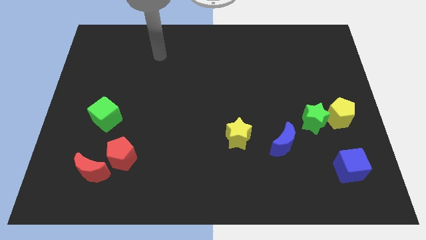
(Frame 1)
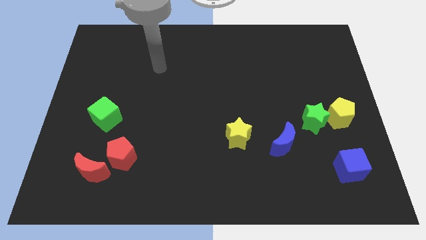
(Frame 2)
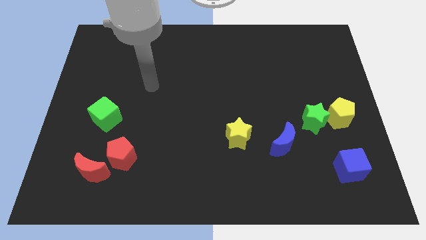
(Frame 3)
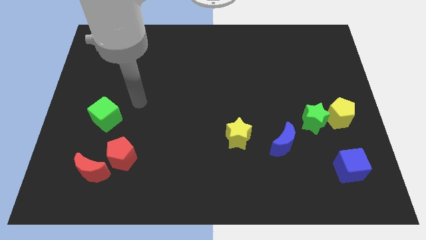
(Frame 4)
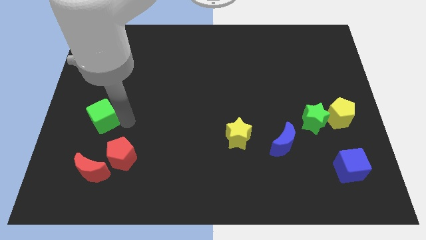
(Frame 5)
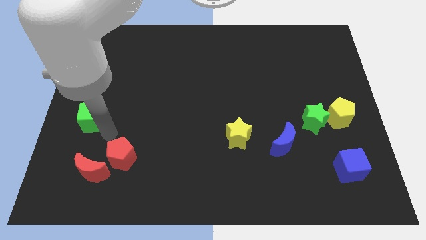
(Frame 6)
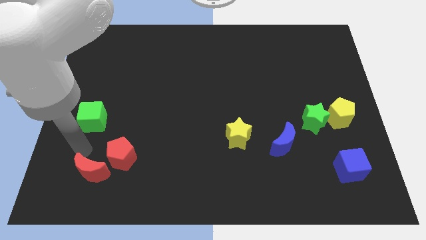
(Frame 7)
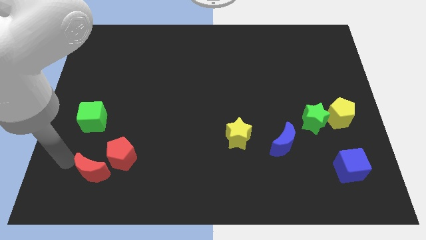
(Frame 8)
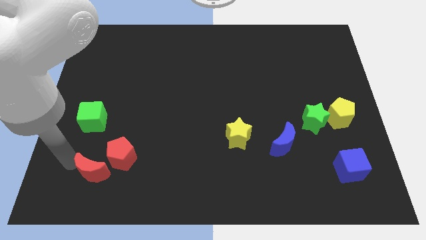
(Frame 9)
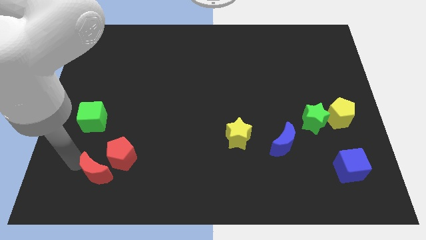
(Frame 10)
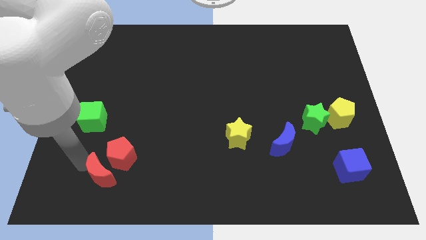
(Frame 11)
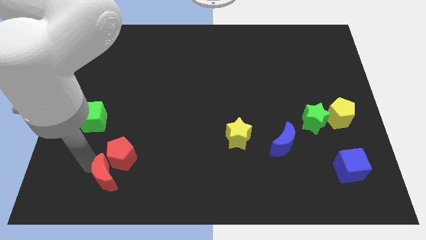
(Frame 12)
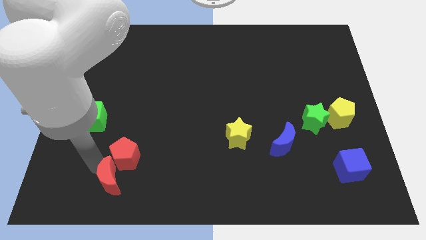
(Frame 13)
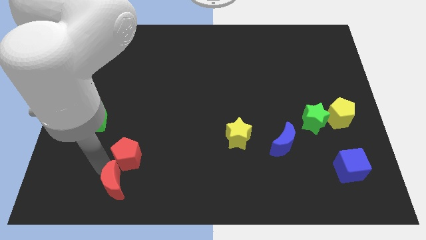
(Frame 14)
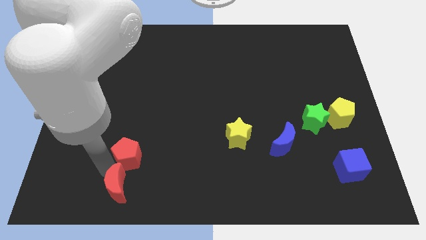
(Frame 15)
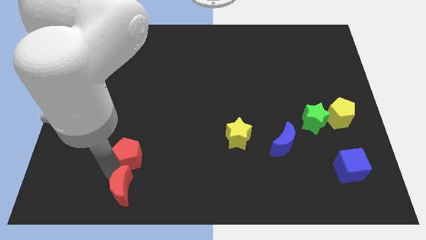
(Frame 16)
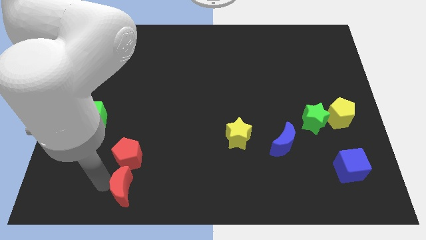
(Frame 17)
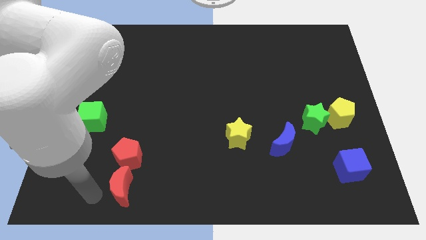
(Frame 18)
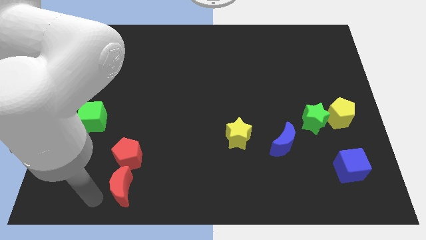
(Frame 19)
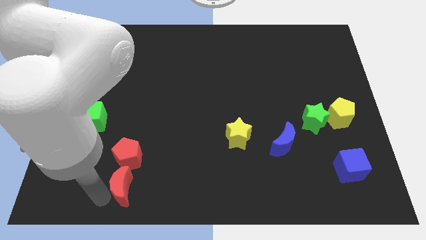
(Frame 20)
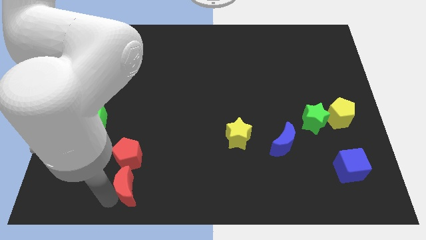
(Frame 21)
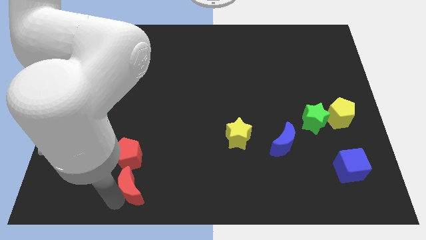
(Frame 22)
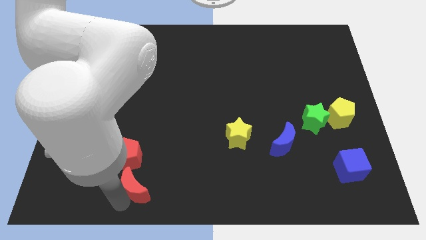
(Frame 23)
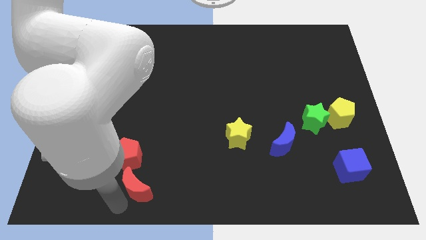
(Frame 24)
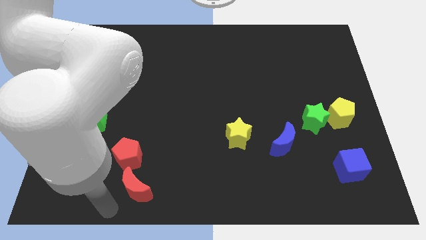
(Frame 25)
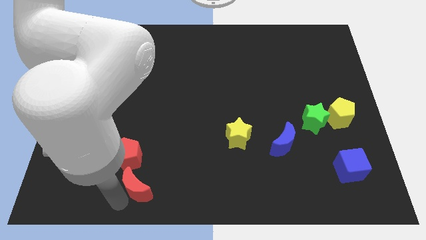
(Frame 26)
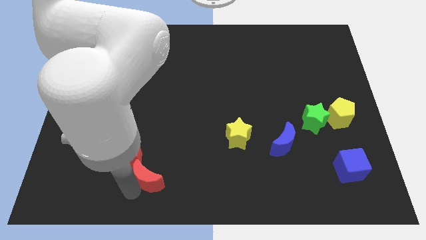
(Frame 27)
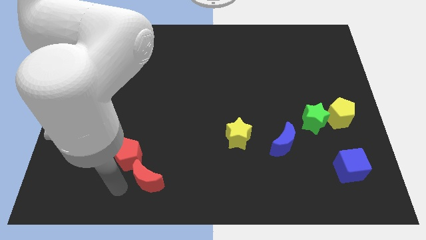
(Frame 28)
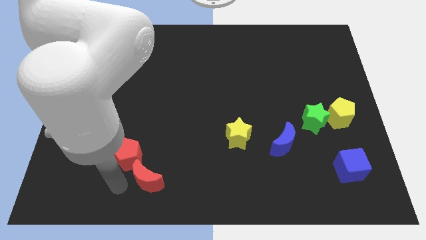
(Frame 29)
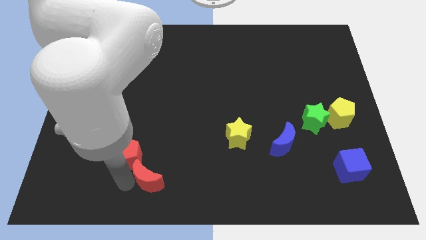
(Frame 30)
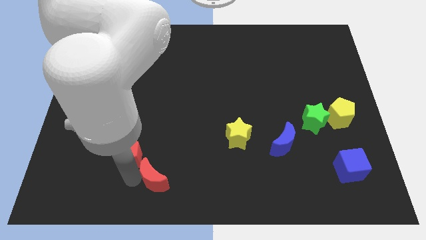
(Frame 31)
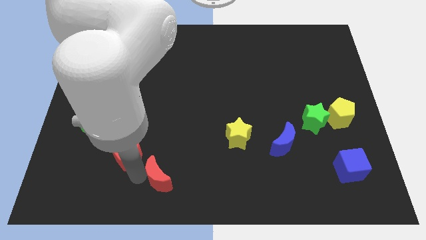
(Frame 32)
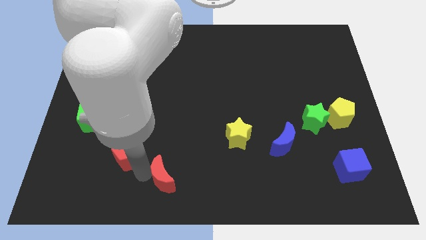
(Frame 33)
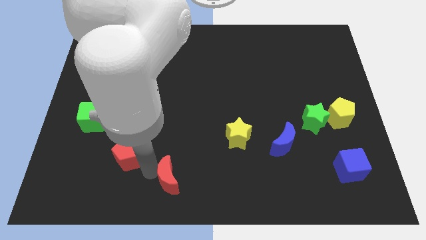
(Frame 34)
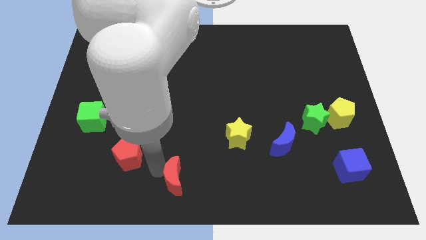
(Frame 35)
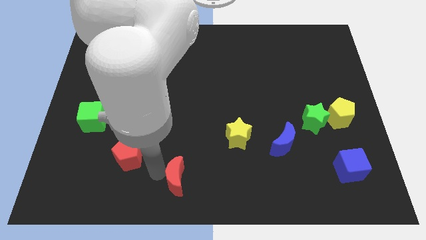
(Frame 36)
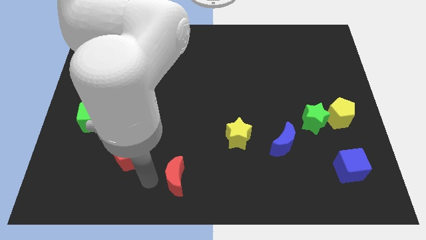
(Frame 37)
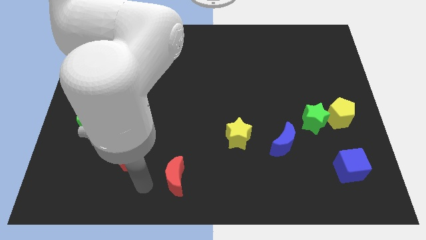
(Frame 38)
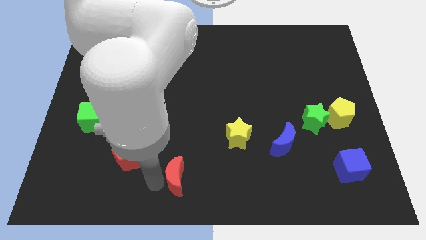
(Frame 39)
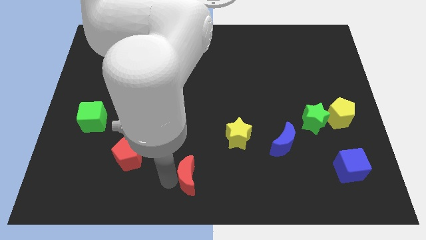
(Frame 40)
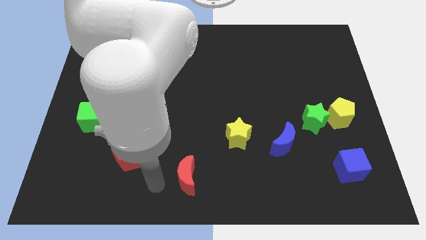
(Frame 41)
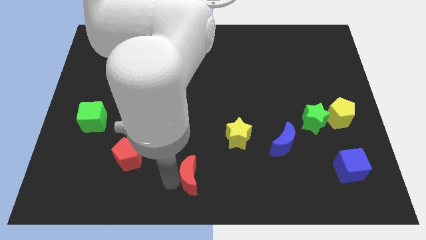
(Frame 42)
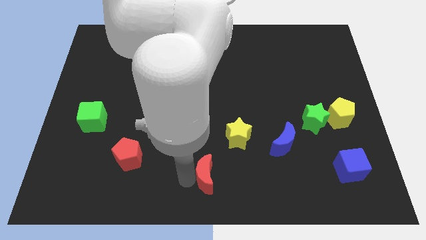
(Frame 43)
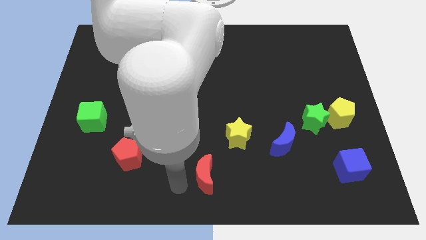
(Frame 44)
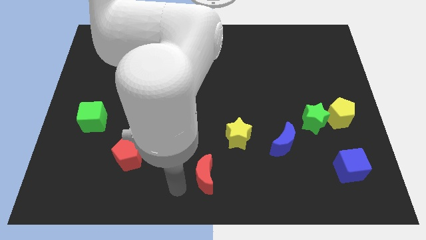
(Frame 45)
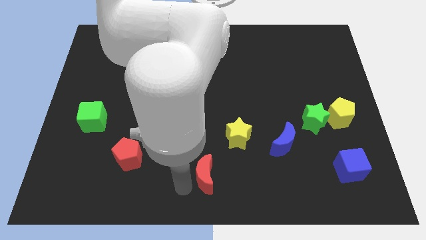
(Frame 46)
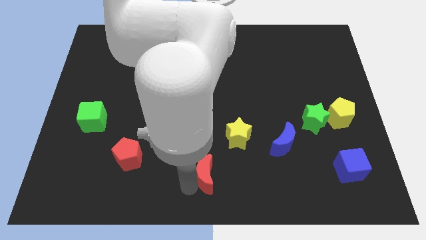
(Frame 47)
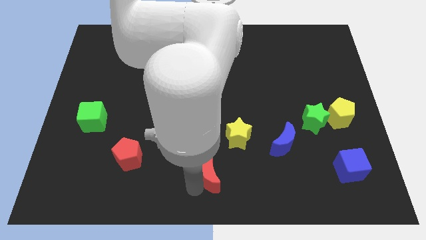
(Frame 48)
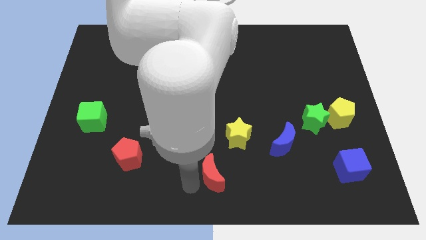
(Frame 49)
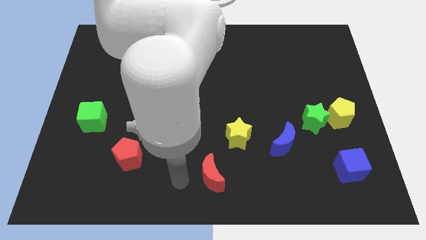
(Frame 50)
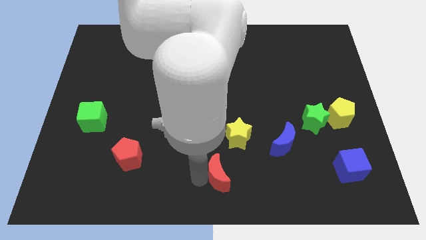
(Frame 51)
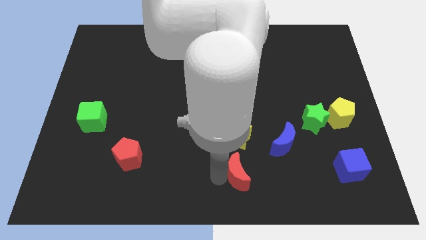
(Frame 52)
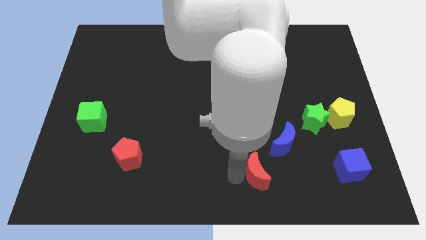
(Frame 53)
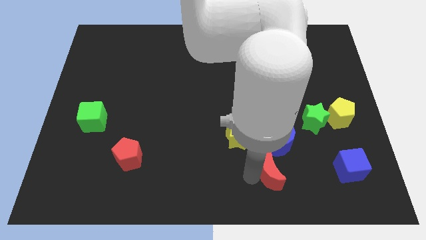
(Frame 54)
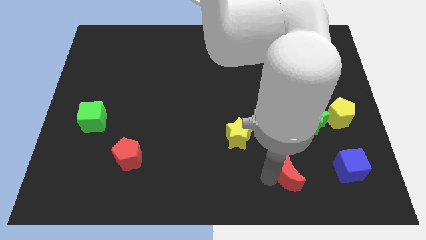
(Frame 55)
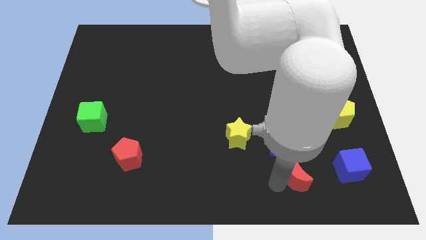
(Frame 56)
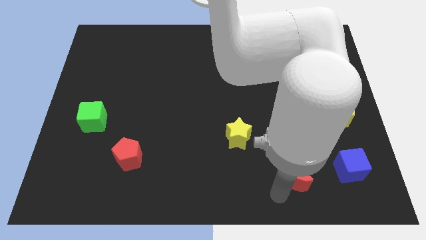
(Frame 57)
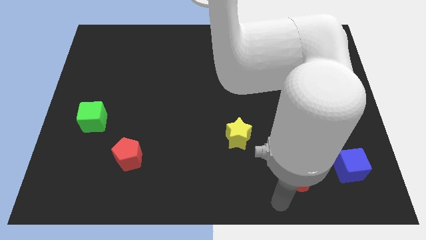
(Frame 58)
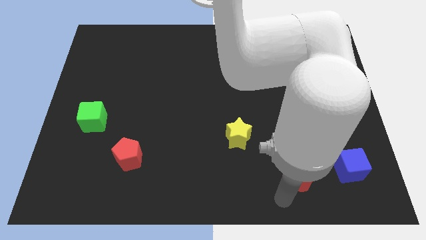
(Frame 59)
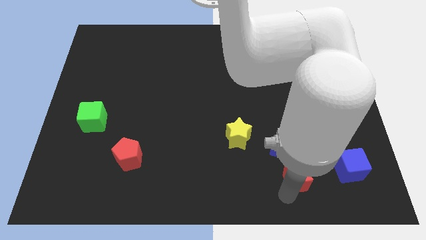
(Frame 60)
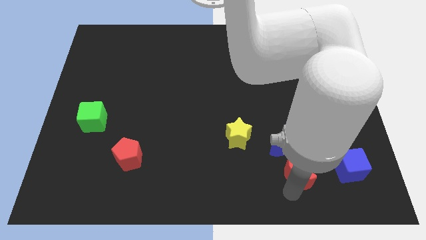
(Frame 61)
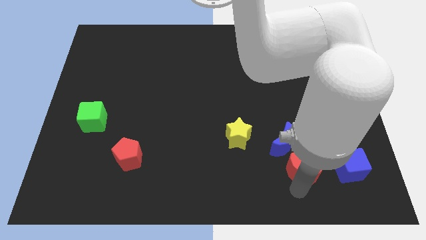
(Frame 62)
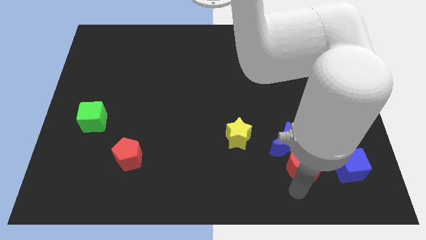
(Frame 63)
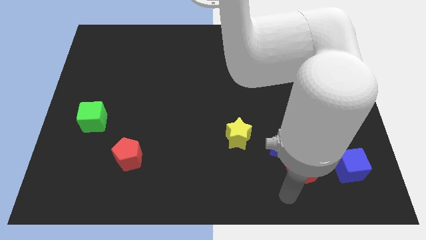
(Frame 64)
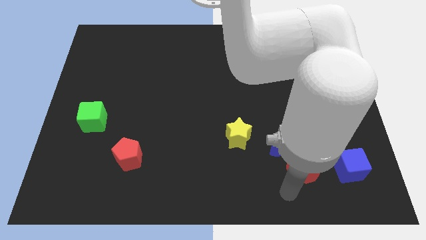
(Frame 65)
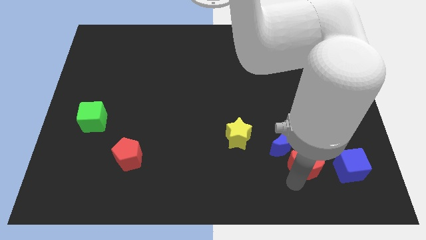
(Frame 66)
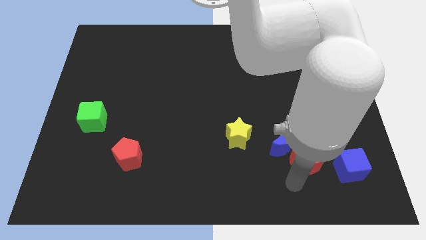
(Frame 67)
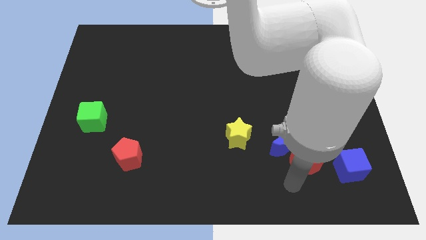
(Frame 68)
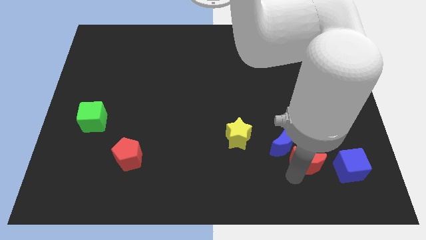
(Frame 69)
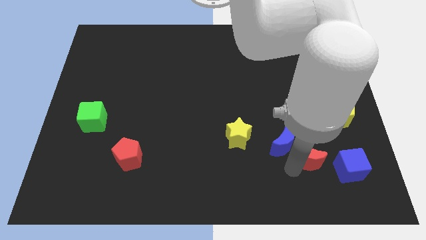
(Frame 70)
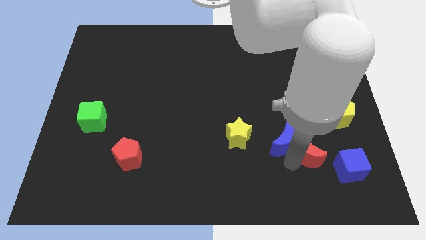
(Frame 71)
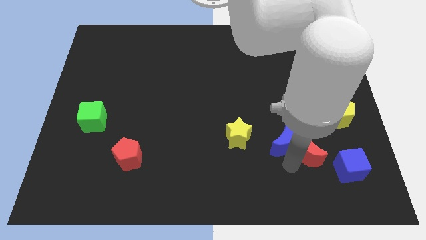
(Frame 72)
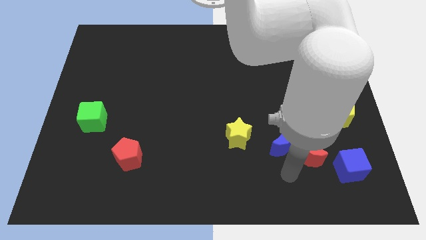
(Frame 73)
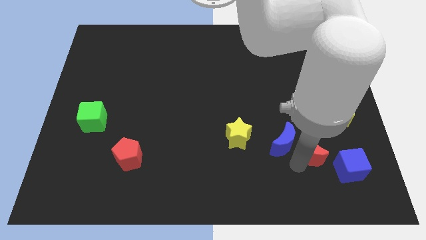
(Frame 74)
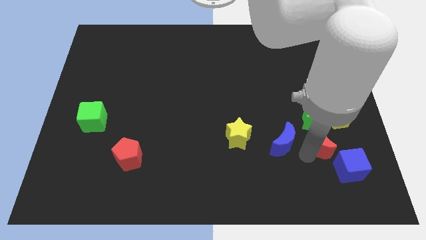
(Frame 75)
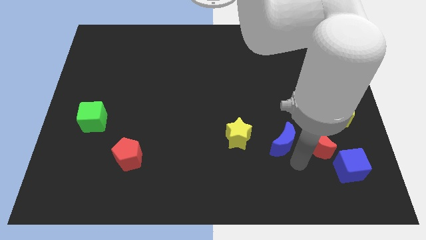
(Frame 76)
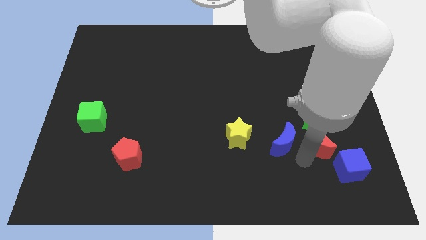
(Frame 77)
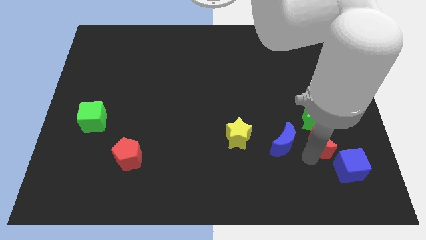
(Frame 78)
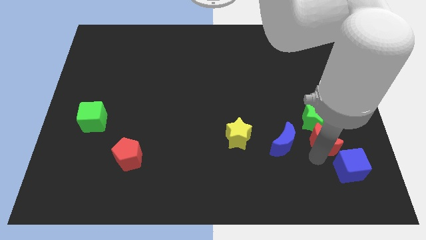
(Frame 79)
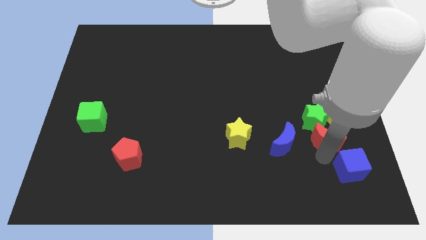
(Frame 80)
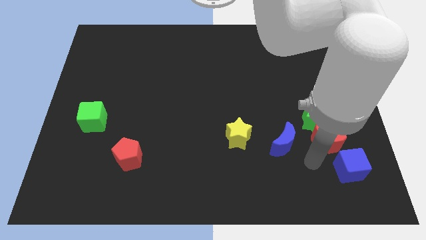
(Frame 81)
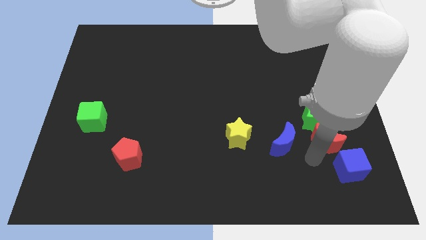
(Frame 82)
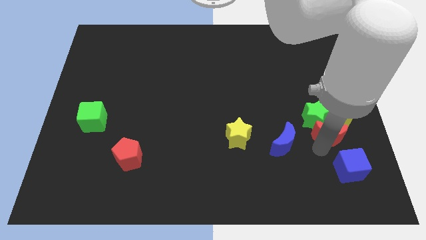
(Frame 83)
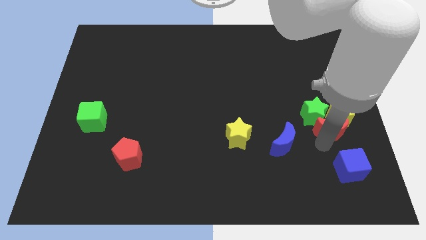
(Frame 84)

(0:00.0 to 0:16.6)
push the red moon next to the yellow pentagon
